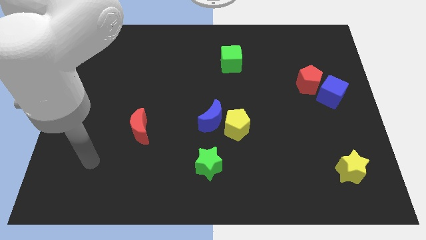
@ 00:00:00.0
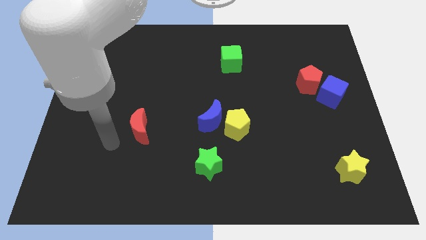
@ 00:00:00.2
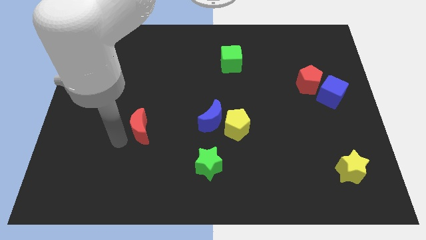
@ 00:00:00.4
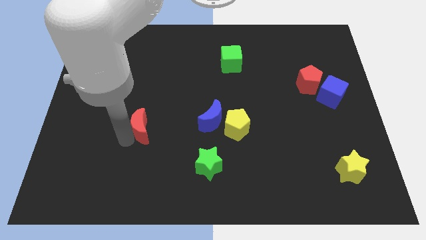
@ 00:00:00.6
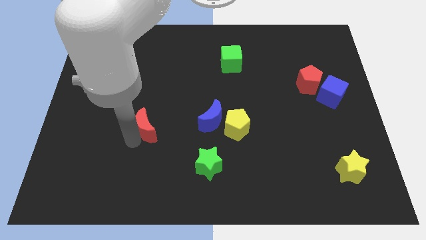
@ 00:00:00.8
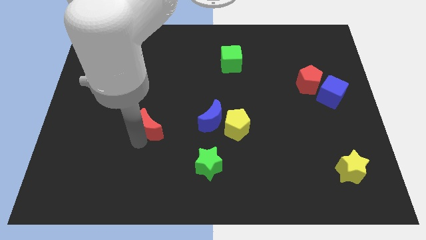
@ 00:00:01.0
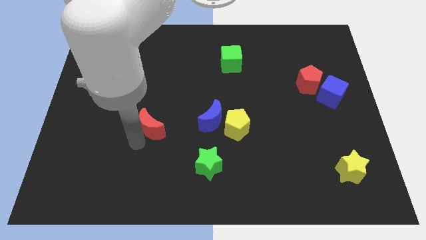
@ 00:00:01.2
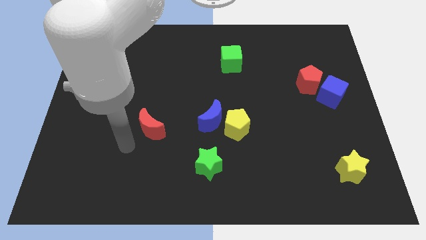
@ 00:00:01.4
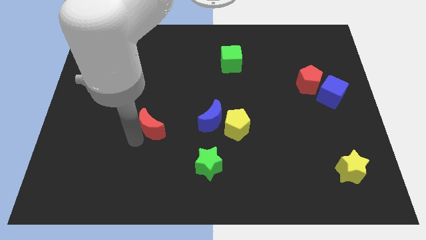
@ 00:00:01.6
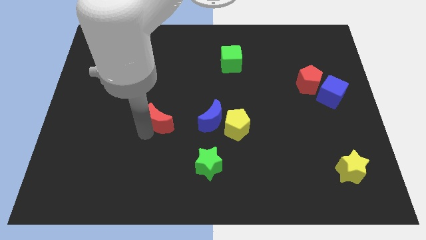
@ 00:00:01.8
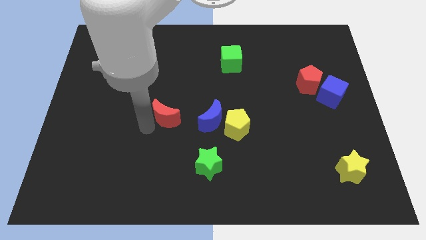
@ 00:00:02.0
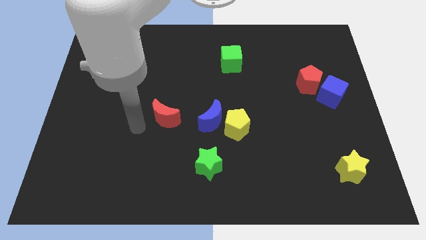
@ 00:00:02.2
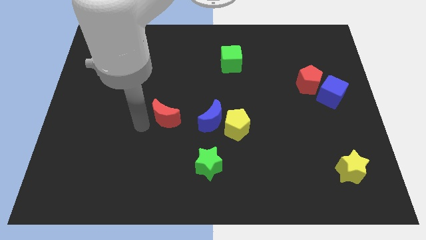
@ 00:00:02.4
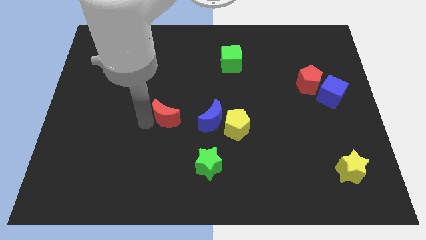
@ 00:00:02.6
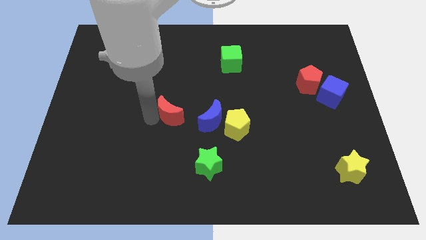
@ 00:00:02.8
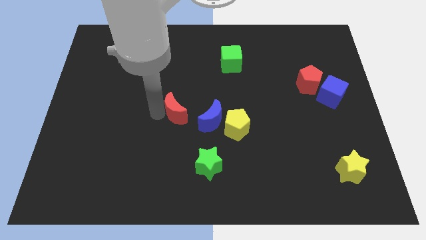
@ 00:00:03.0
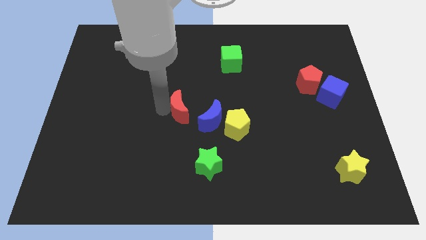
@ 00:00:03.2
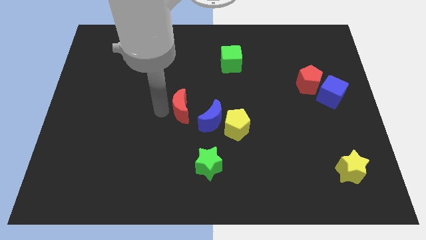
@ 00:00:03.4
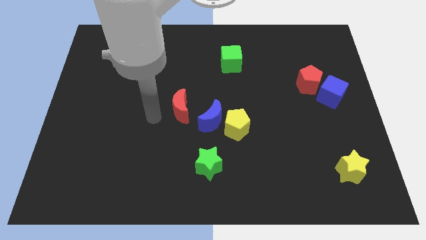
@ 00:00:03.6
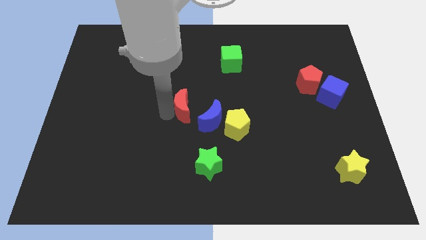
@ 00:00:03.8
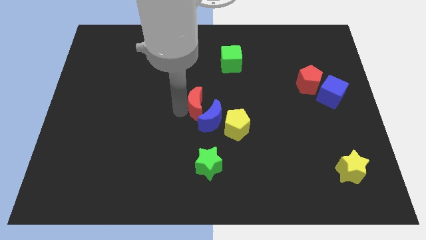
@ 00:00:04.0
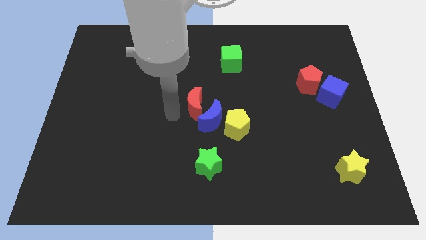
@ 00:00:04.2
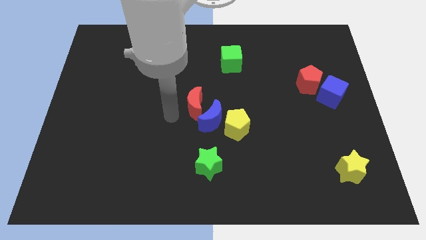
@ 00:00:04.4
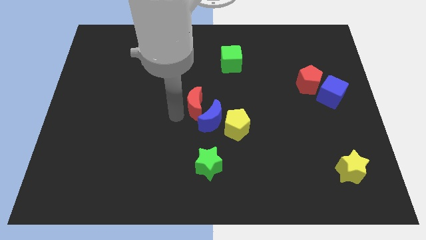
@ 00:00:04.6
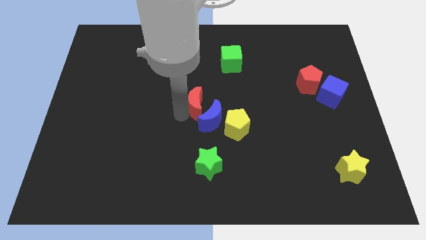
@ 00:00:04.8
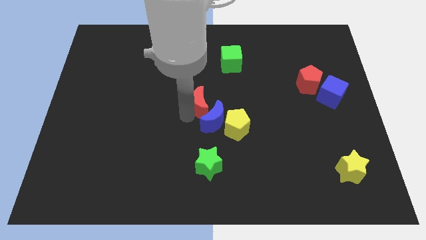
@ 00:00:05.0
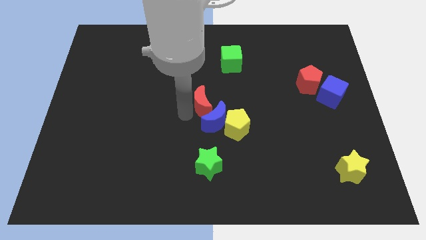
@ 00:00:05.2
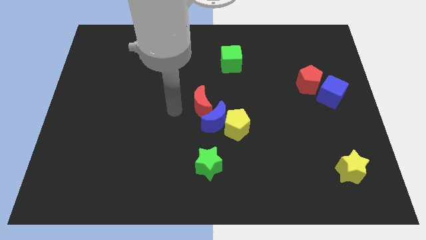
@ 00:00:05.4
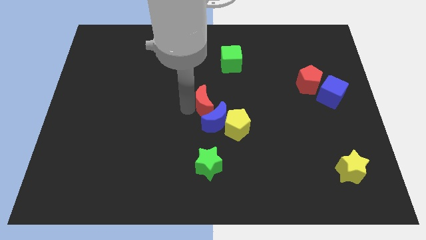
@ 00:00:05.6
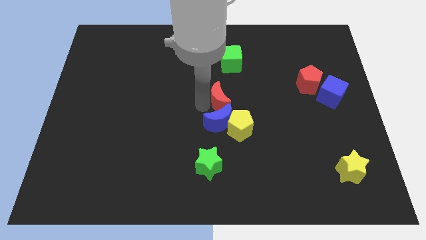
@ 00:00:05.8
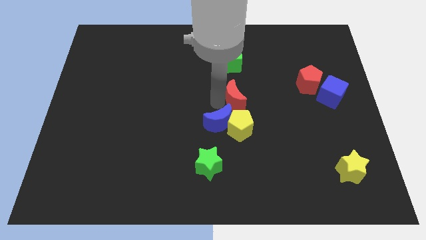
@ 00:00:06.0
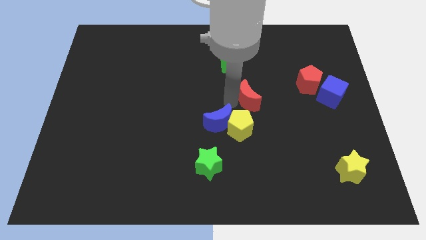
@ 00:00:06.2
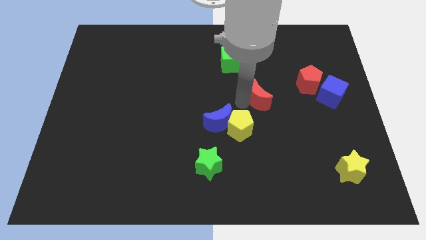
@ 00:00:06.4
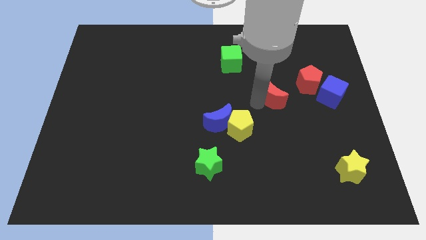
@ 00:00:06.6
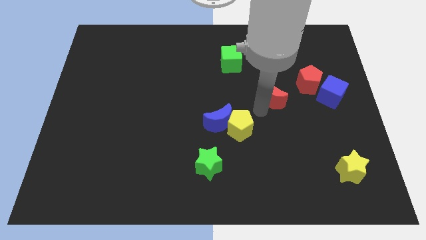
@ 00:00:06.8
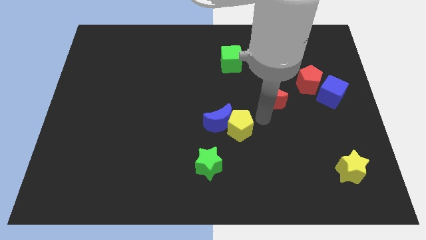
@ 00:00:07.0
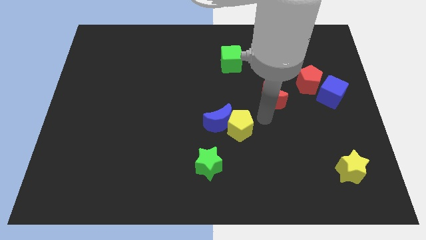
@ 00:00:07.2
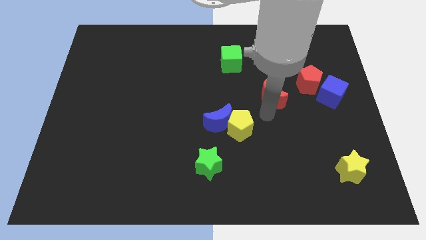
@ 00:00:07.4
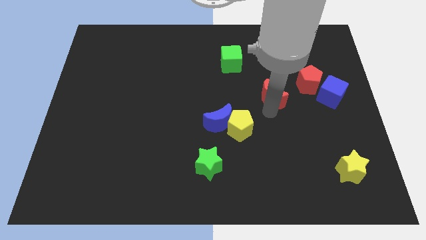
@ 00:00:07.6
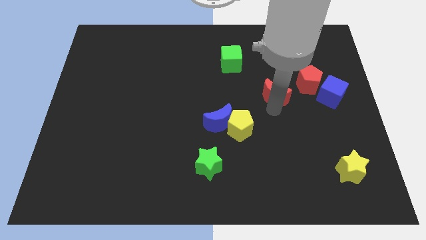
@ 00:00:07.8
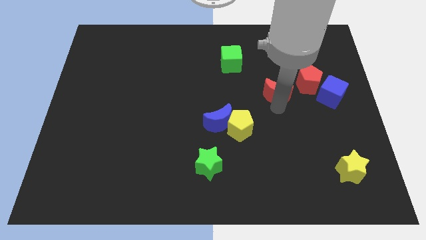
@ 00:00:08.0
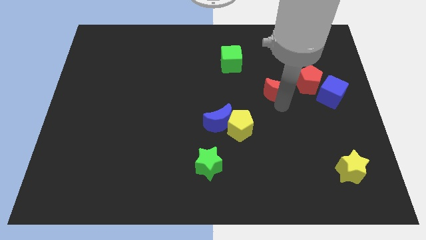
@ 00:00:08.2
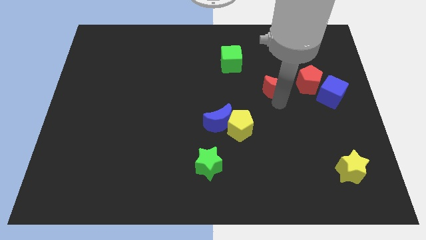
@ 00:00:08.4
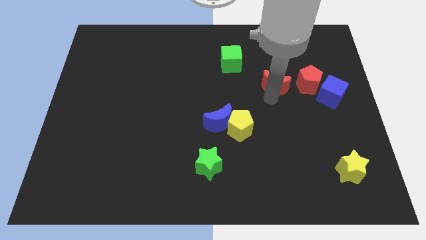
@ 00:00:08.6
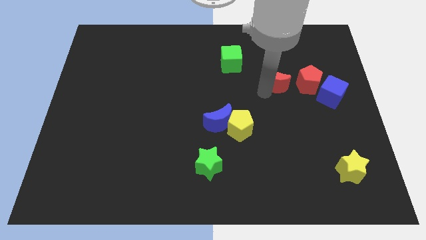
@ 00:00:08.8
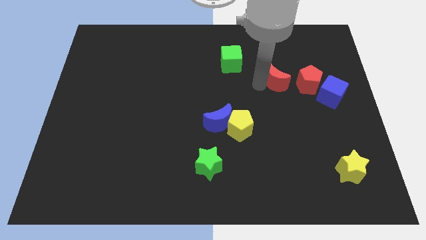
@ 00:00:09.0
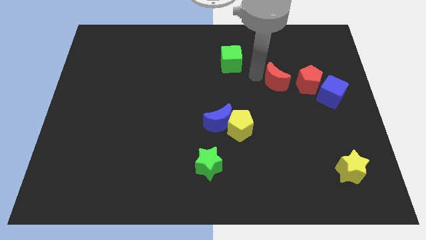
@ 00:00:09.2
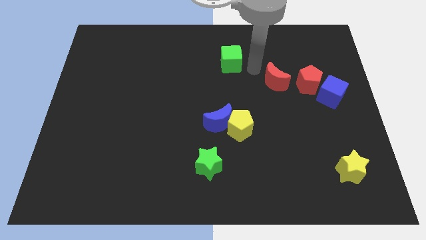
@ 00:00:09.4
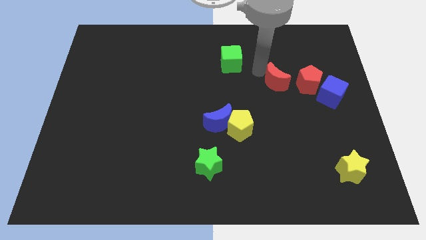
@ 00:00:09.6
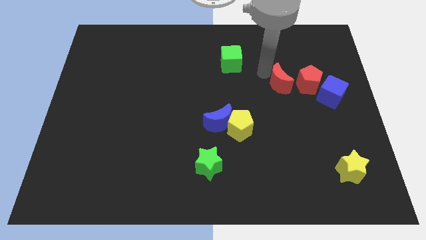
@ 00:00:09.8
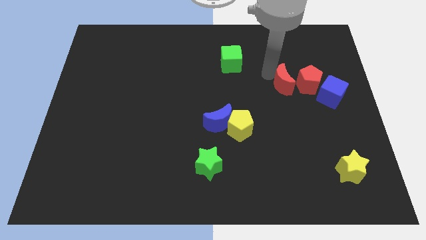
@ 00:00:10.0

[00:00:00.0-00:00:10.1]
slide the red moon towards the red pentagon

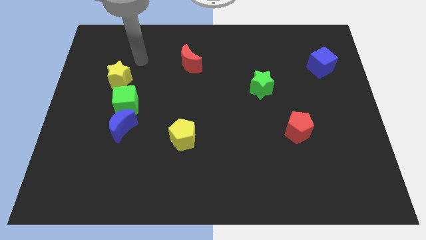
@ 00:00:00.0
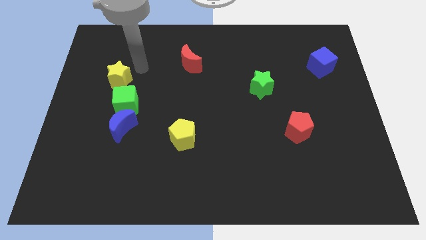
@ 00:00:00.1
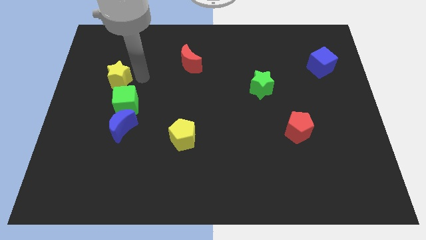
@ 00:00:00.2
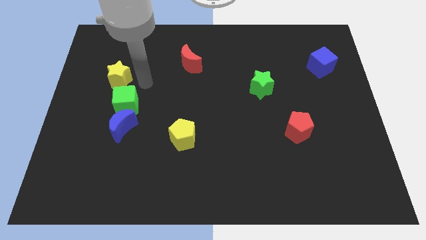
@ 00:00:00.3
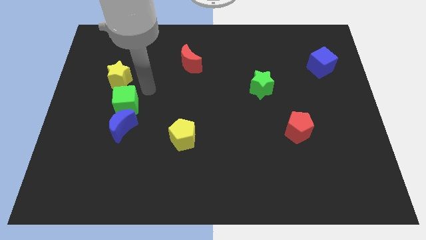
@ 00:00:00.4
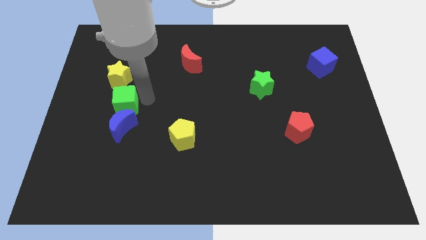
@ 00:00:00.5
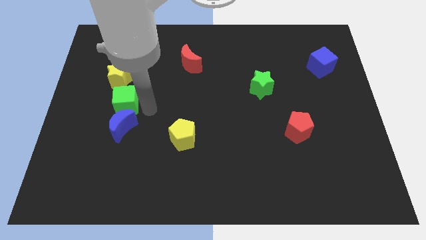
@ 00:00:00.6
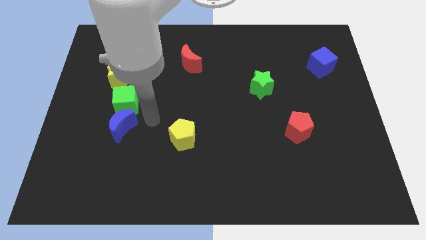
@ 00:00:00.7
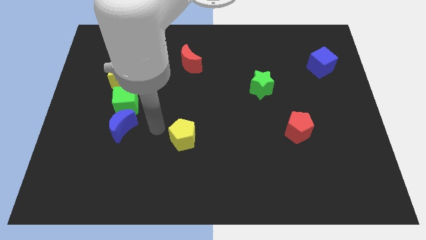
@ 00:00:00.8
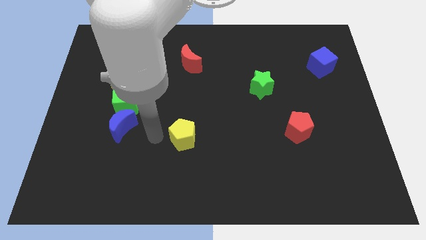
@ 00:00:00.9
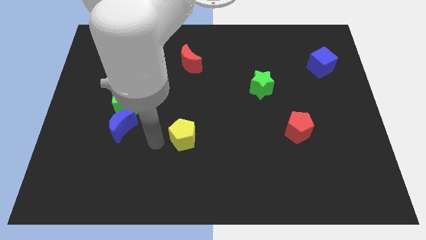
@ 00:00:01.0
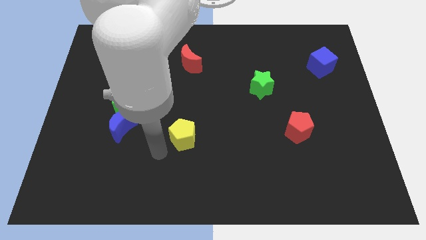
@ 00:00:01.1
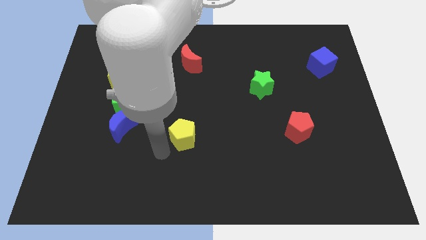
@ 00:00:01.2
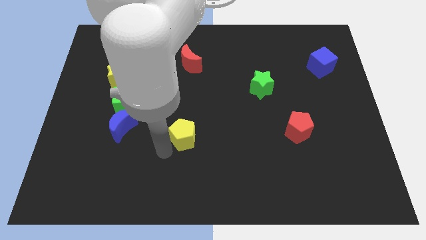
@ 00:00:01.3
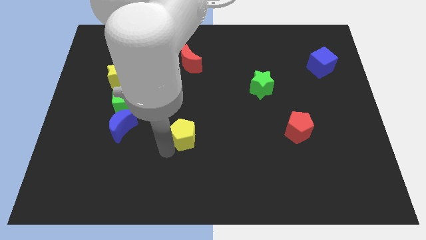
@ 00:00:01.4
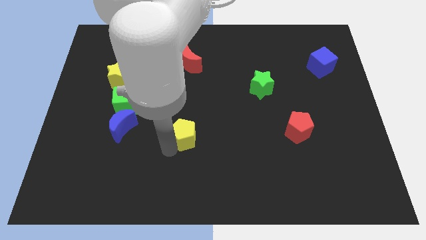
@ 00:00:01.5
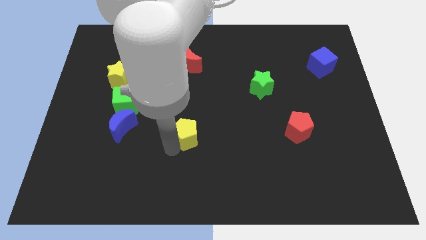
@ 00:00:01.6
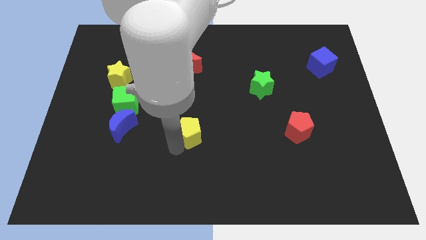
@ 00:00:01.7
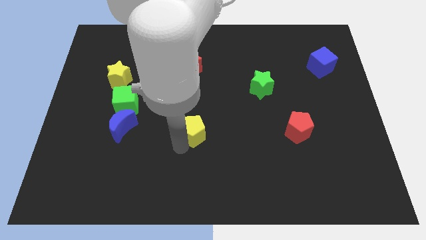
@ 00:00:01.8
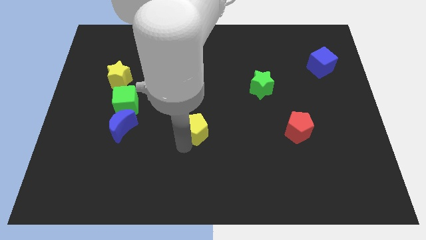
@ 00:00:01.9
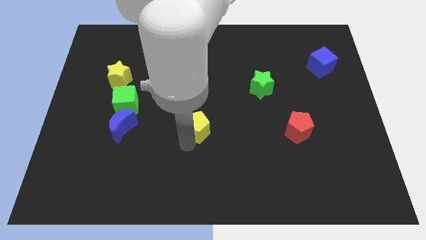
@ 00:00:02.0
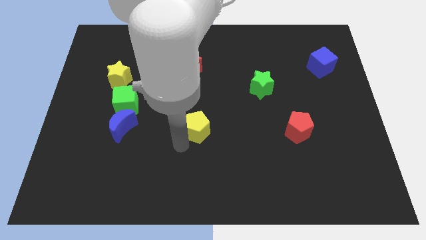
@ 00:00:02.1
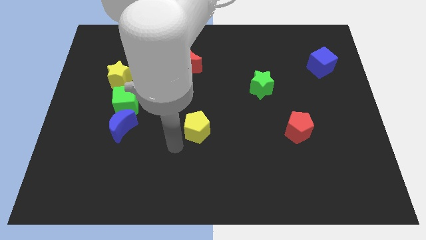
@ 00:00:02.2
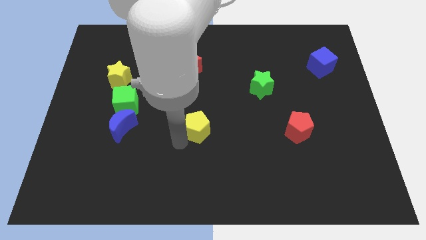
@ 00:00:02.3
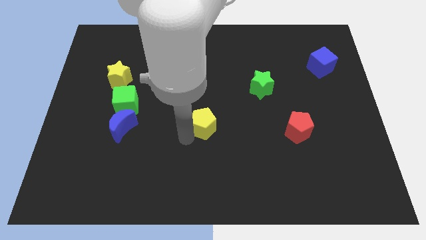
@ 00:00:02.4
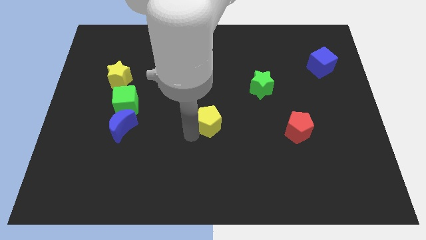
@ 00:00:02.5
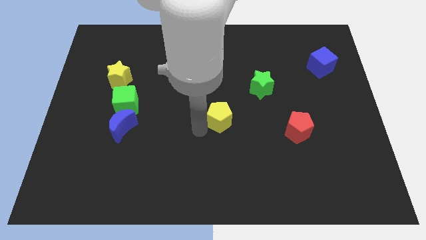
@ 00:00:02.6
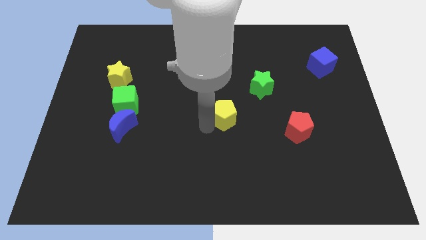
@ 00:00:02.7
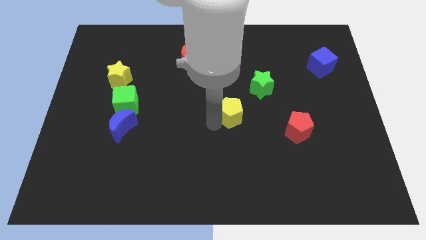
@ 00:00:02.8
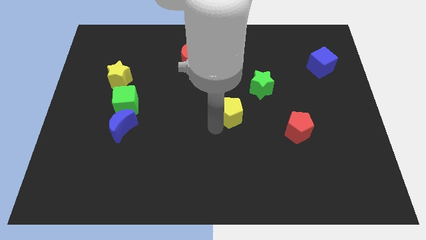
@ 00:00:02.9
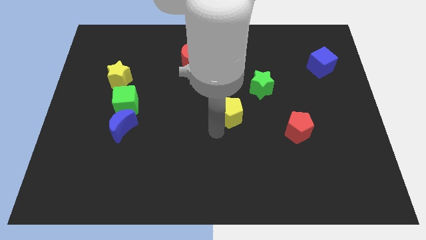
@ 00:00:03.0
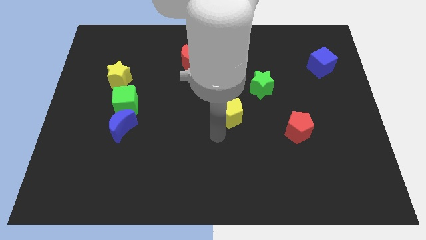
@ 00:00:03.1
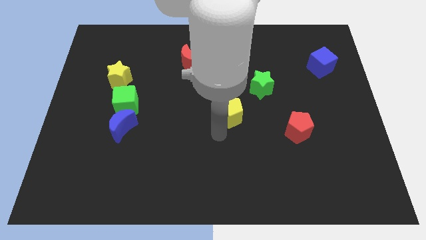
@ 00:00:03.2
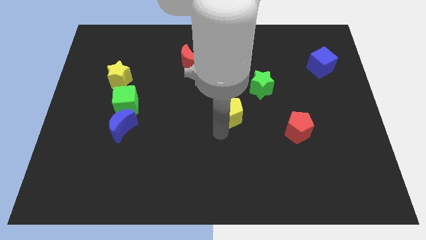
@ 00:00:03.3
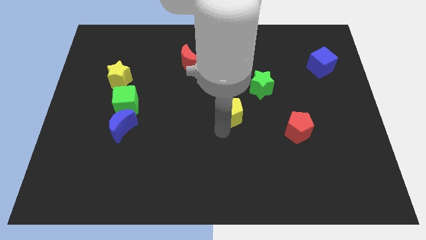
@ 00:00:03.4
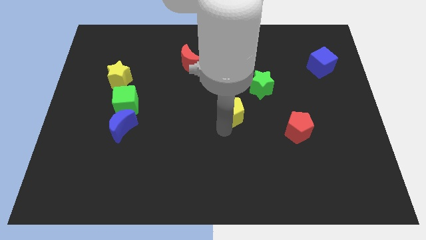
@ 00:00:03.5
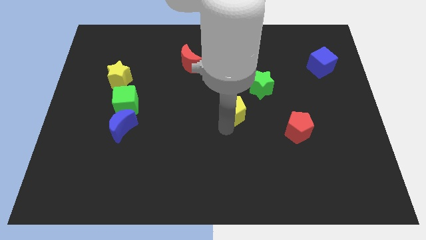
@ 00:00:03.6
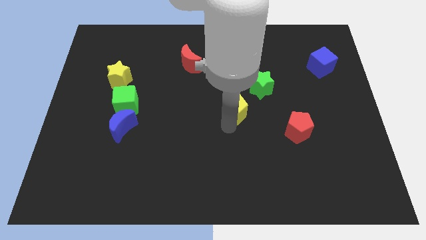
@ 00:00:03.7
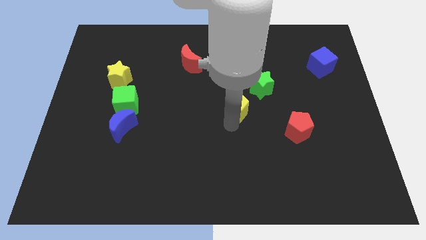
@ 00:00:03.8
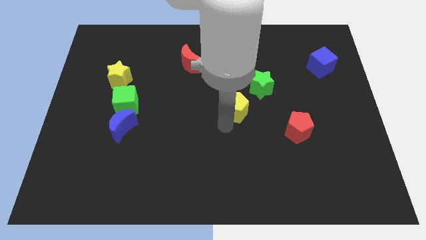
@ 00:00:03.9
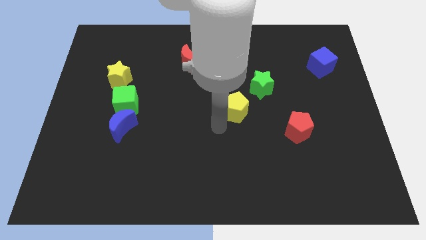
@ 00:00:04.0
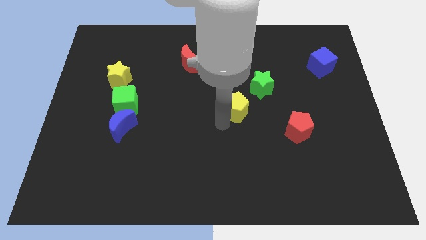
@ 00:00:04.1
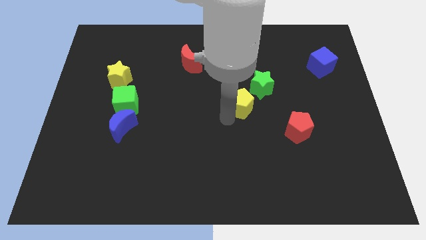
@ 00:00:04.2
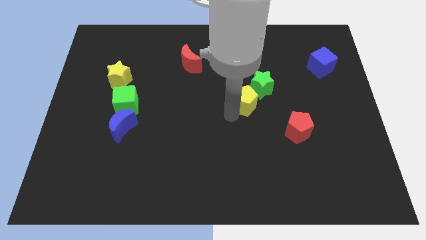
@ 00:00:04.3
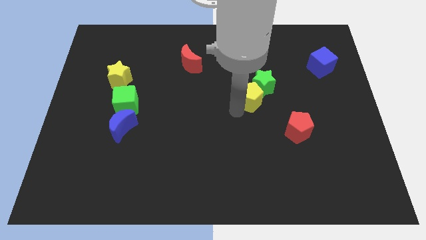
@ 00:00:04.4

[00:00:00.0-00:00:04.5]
slide the yellow pentagon to the green star
